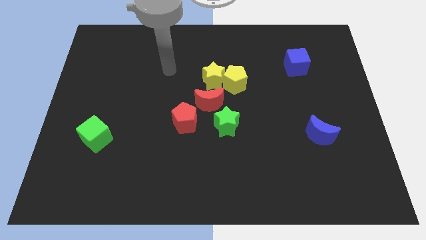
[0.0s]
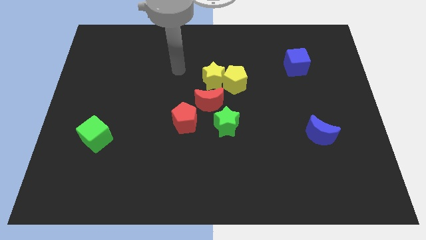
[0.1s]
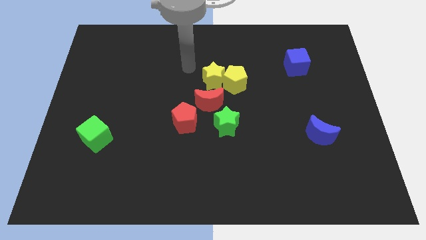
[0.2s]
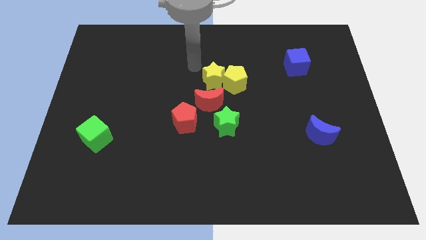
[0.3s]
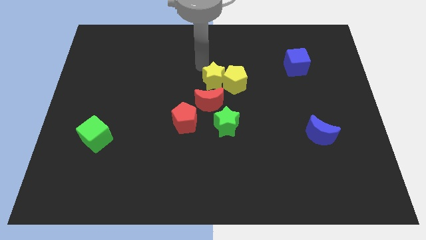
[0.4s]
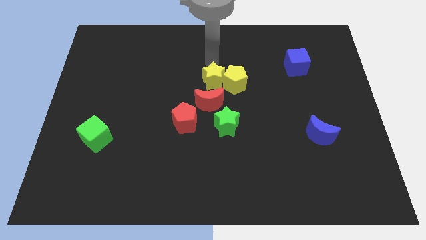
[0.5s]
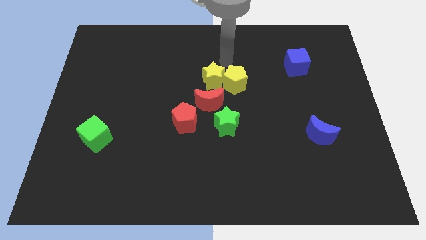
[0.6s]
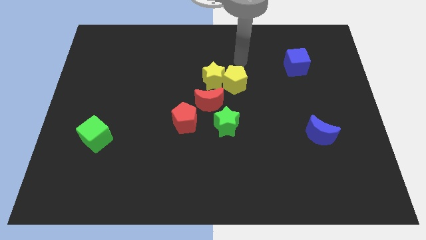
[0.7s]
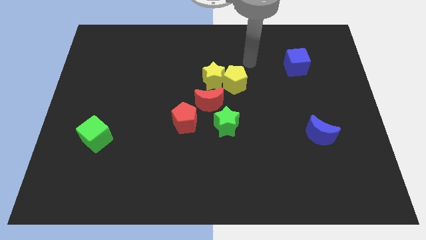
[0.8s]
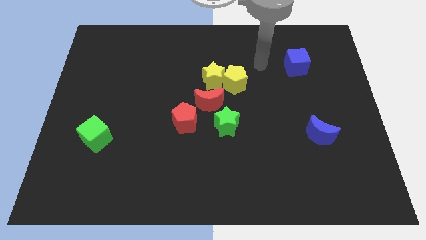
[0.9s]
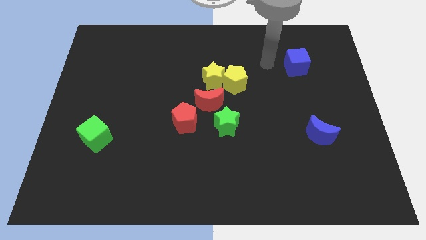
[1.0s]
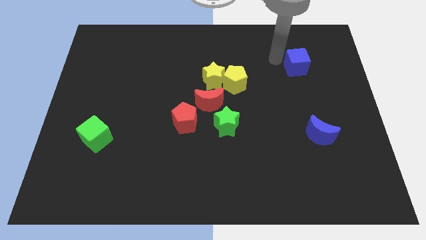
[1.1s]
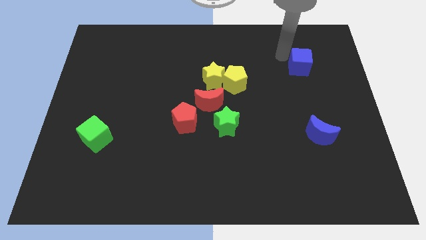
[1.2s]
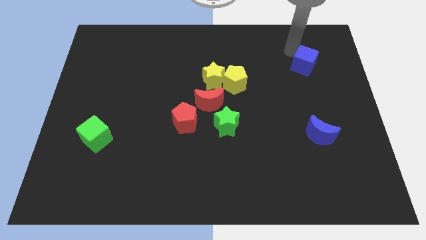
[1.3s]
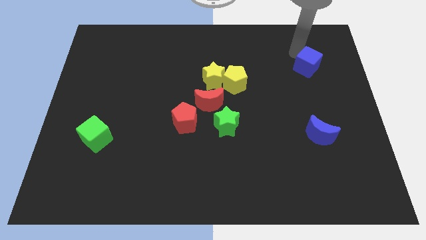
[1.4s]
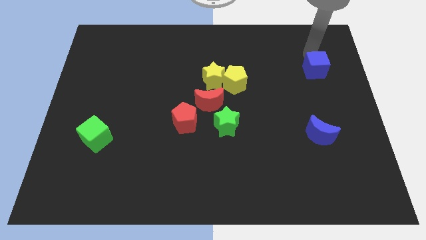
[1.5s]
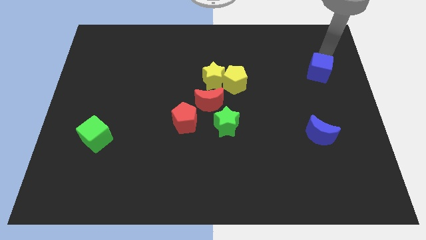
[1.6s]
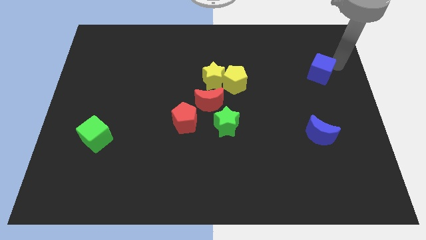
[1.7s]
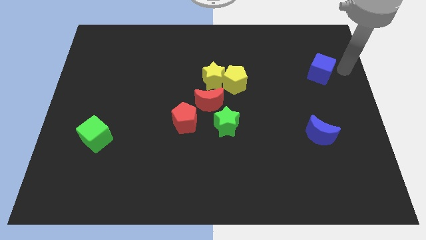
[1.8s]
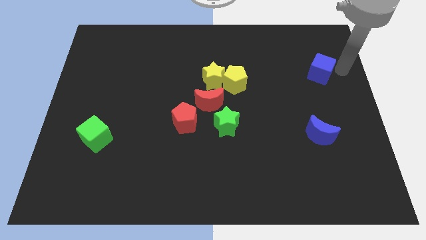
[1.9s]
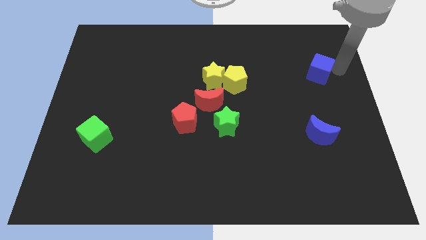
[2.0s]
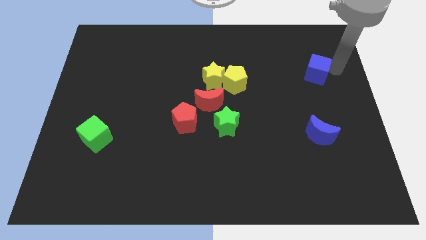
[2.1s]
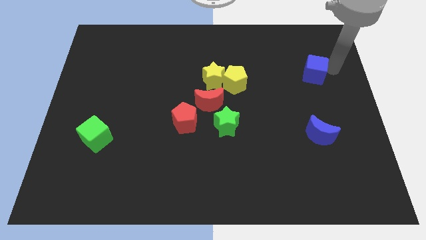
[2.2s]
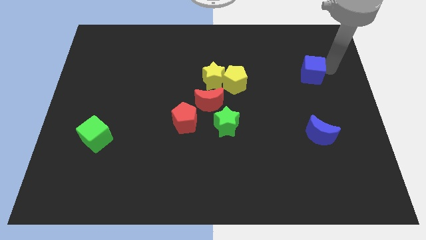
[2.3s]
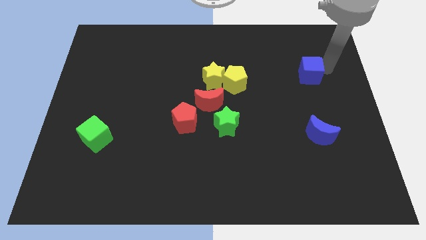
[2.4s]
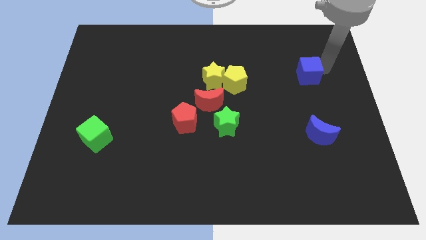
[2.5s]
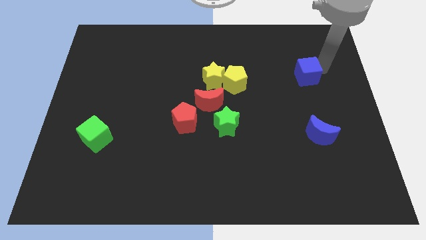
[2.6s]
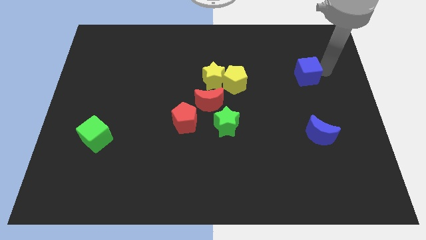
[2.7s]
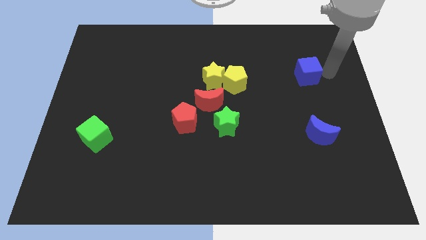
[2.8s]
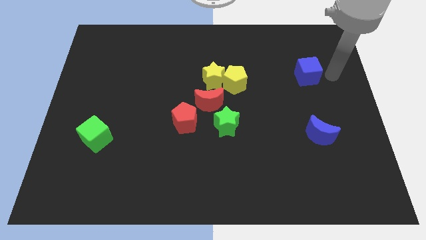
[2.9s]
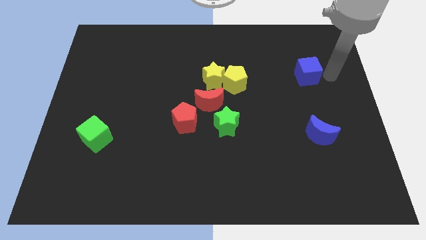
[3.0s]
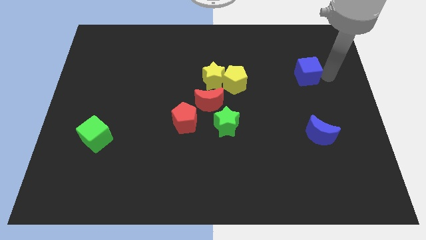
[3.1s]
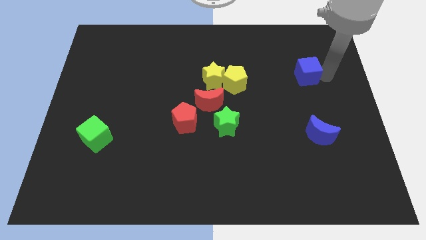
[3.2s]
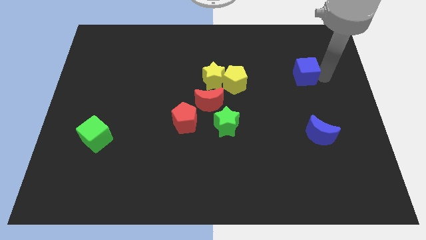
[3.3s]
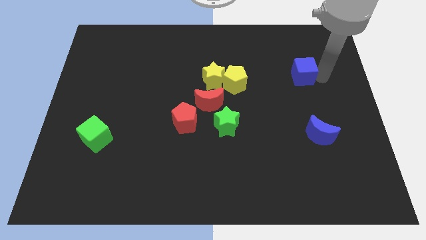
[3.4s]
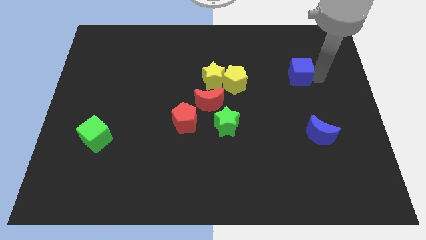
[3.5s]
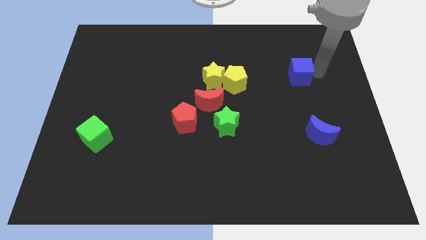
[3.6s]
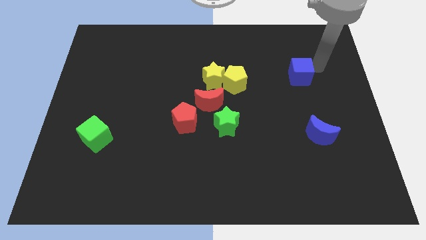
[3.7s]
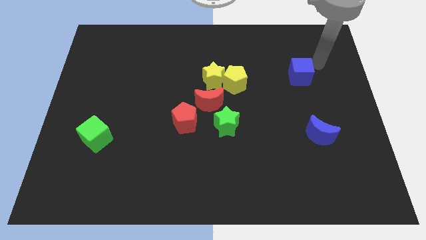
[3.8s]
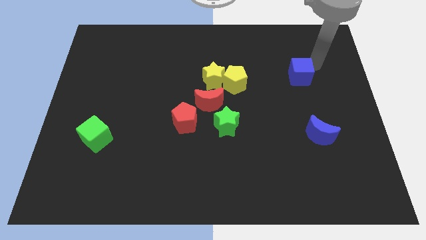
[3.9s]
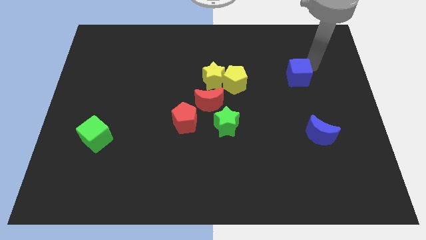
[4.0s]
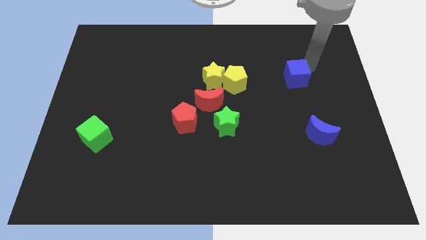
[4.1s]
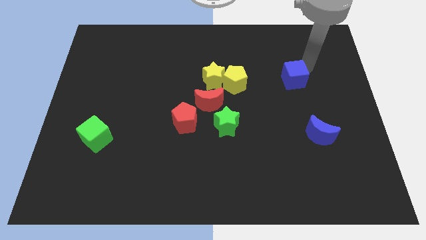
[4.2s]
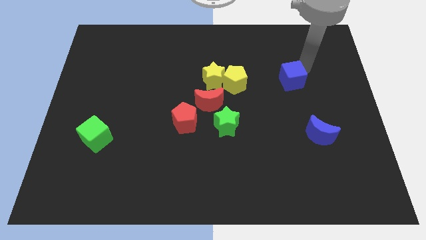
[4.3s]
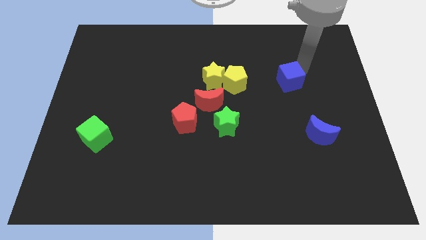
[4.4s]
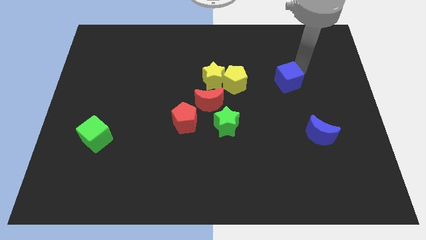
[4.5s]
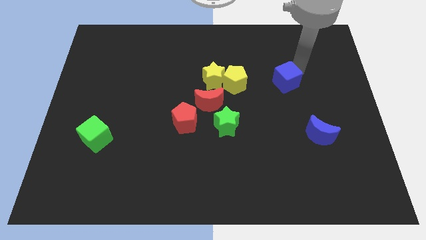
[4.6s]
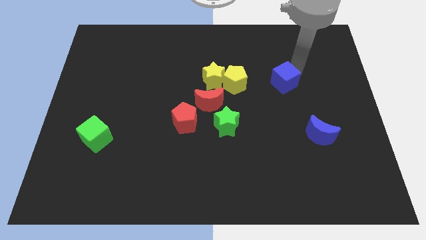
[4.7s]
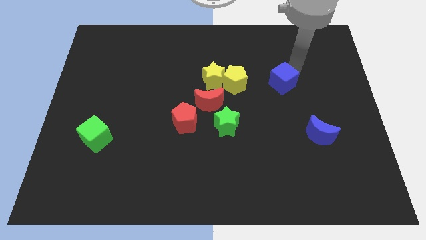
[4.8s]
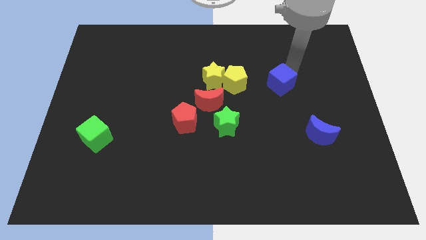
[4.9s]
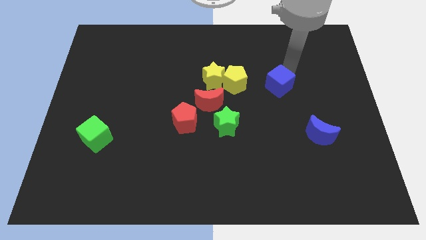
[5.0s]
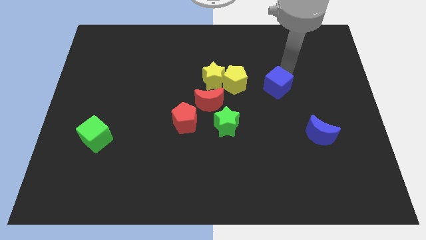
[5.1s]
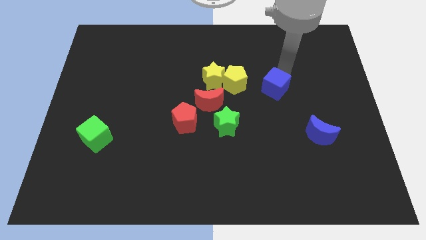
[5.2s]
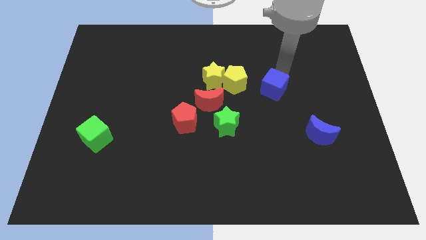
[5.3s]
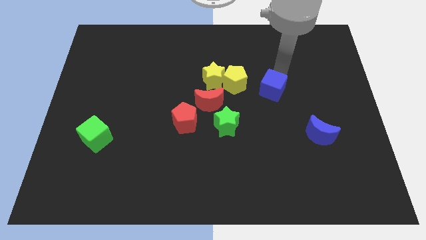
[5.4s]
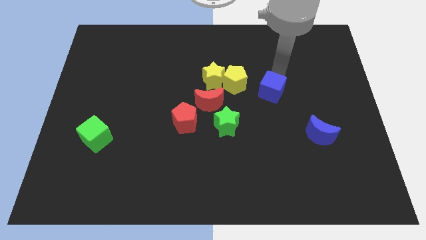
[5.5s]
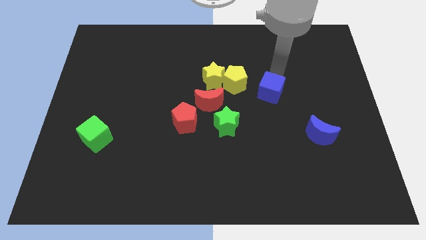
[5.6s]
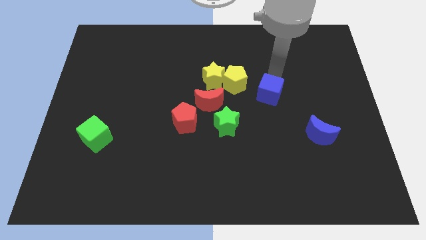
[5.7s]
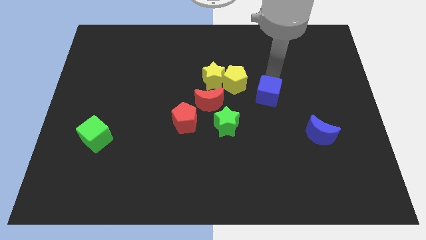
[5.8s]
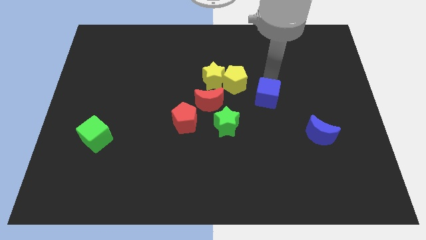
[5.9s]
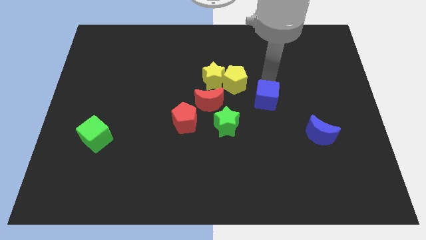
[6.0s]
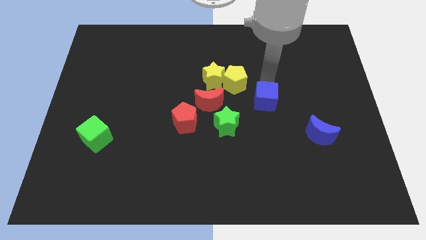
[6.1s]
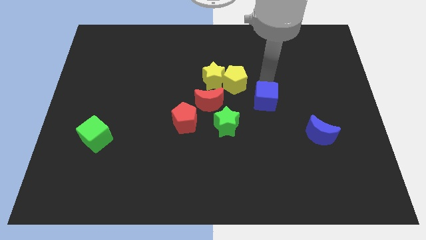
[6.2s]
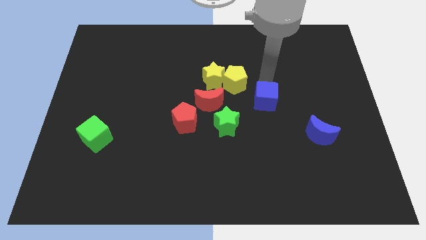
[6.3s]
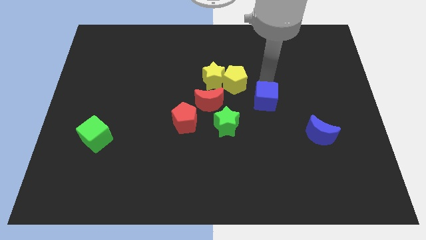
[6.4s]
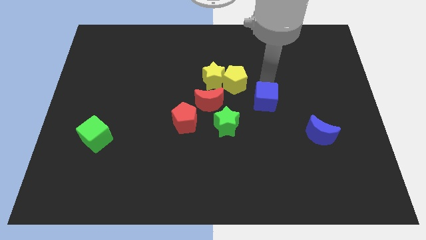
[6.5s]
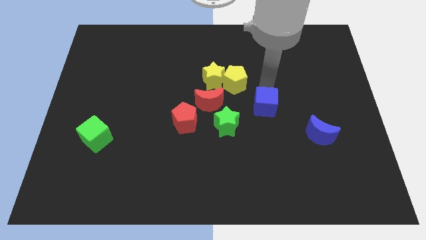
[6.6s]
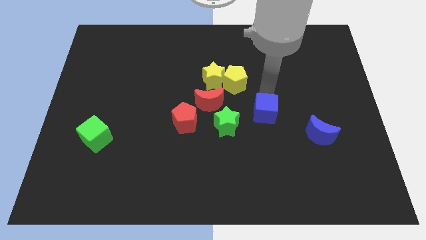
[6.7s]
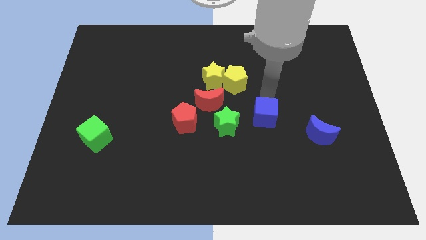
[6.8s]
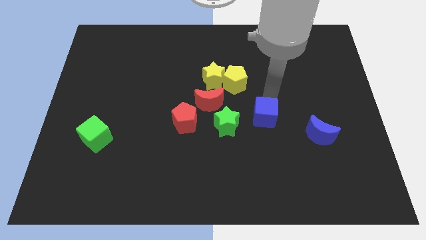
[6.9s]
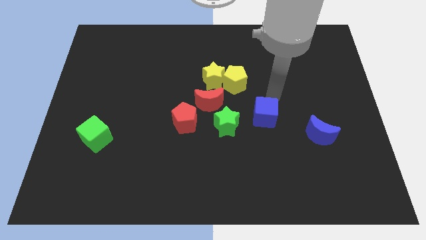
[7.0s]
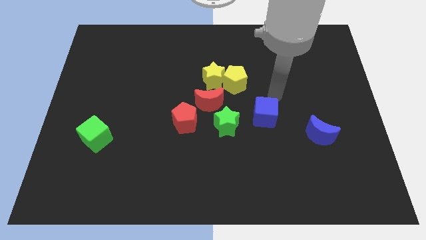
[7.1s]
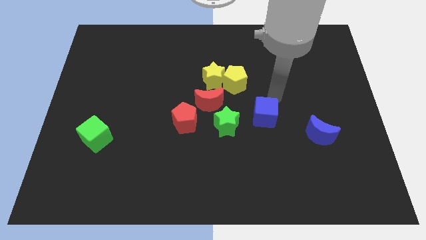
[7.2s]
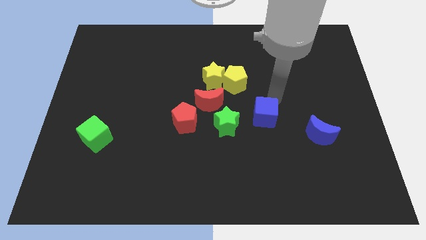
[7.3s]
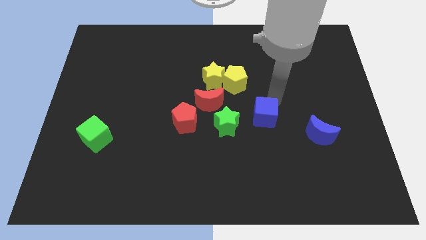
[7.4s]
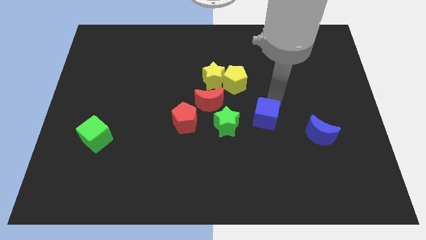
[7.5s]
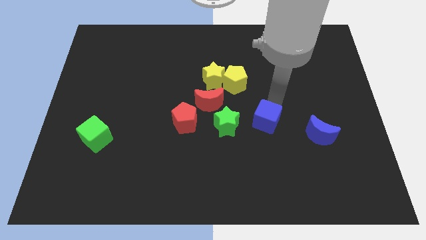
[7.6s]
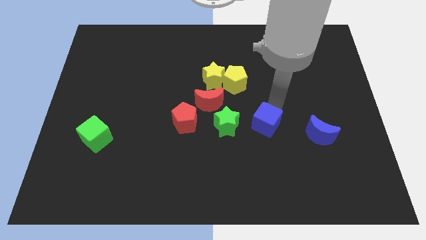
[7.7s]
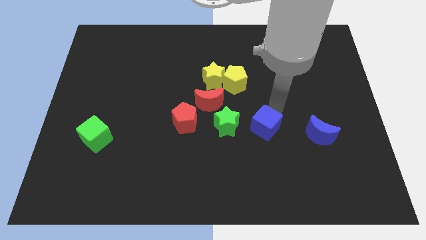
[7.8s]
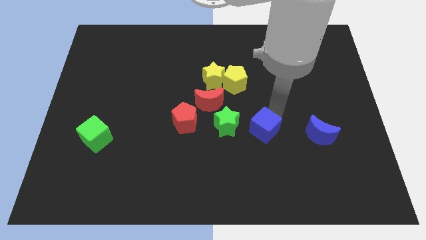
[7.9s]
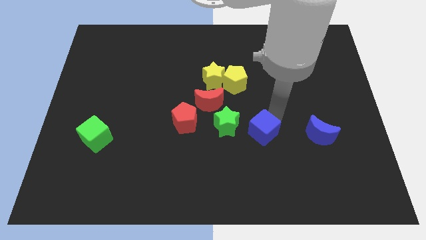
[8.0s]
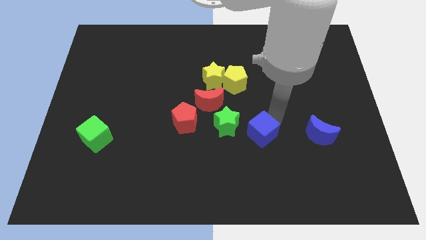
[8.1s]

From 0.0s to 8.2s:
move the blue cube diagonally downwards and to the left
